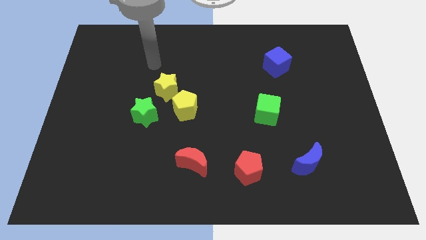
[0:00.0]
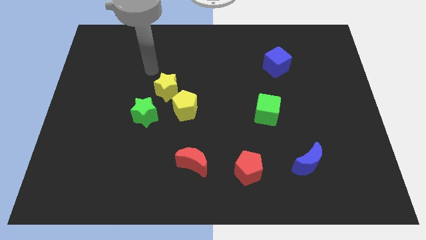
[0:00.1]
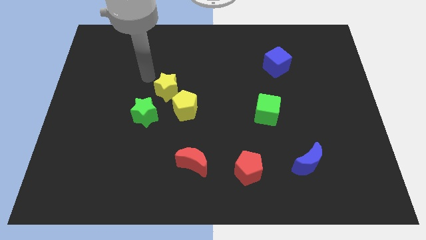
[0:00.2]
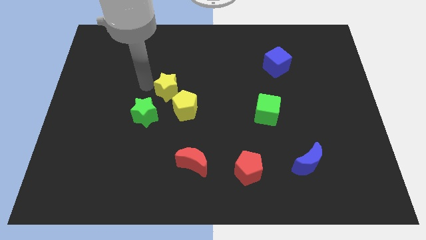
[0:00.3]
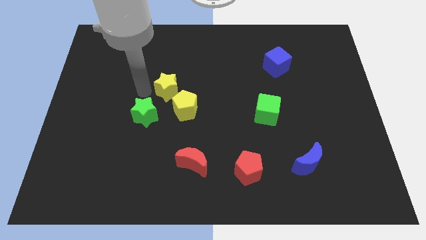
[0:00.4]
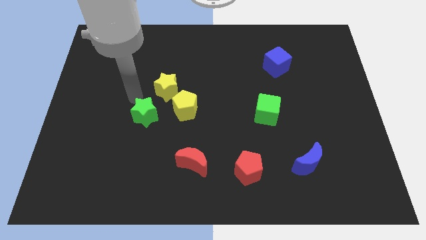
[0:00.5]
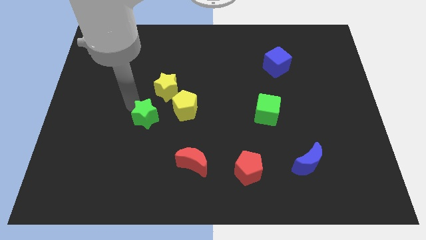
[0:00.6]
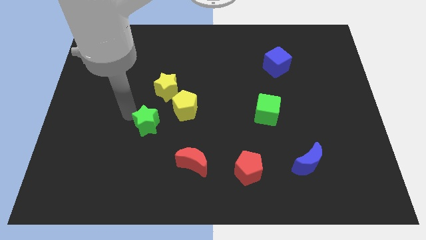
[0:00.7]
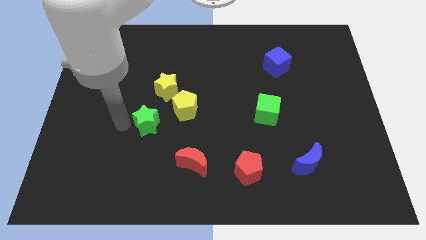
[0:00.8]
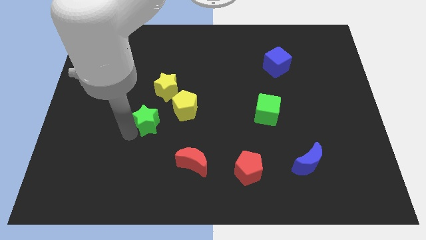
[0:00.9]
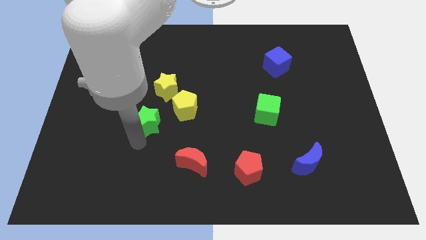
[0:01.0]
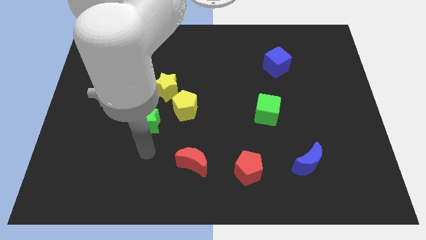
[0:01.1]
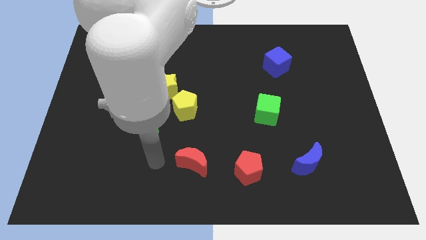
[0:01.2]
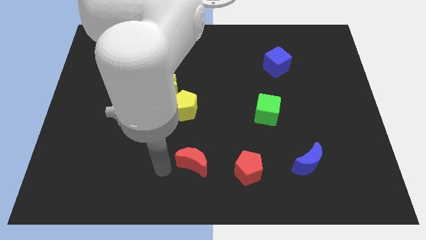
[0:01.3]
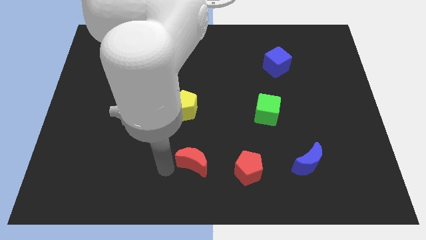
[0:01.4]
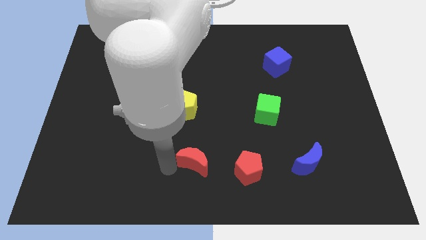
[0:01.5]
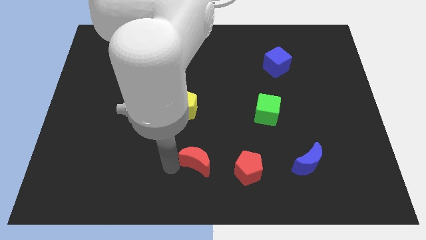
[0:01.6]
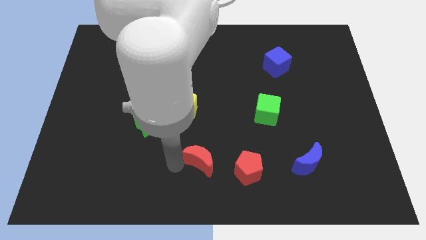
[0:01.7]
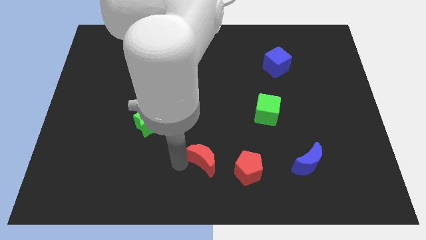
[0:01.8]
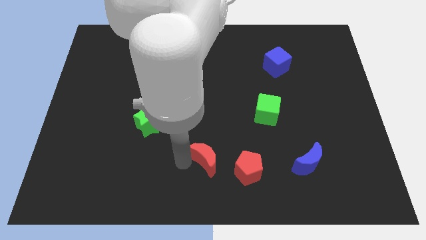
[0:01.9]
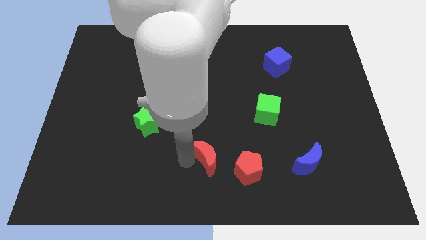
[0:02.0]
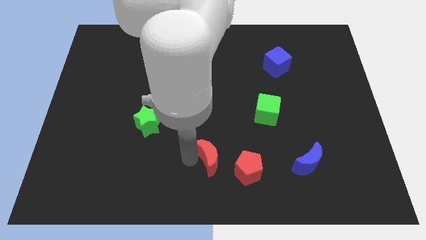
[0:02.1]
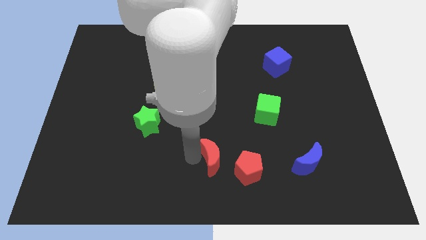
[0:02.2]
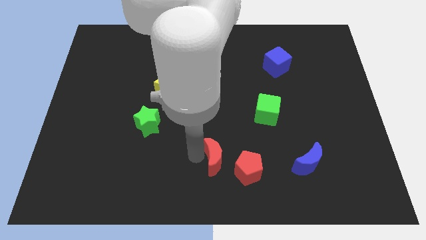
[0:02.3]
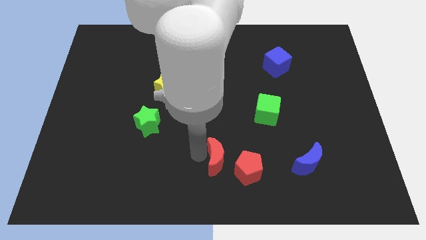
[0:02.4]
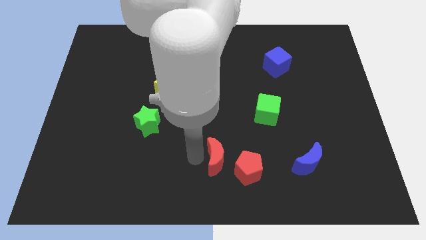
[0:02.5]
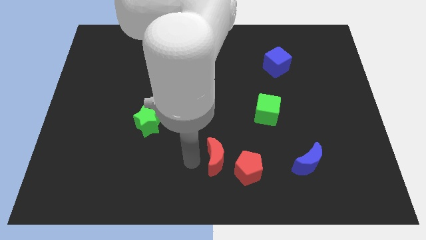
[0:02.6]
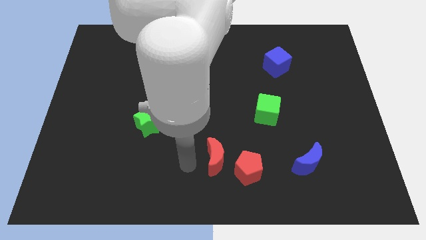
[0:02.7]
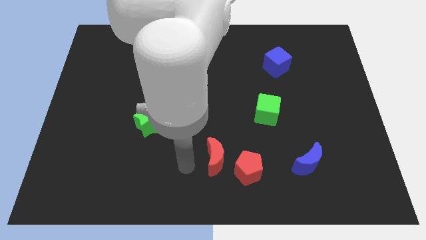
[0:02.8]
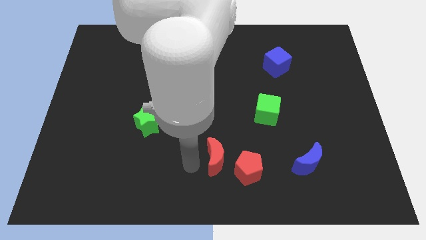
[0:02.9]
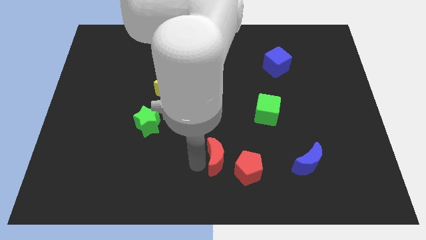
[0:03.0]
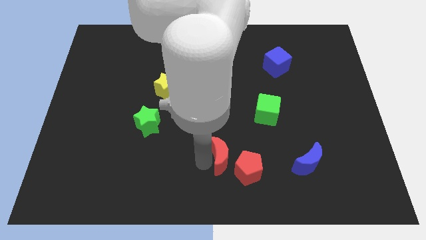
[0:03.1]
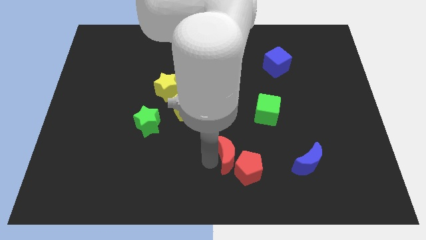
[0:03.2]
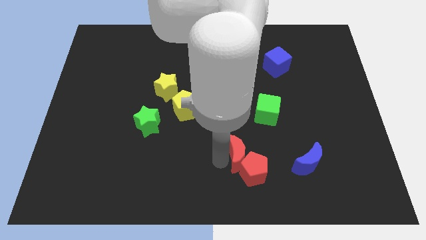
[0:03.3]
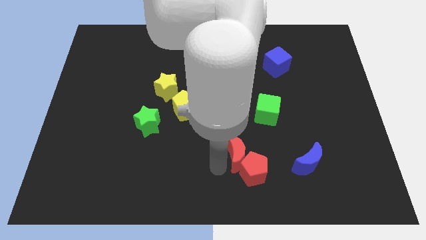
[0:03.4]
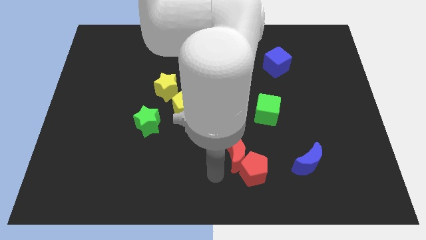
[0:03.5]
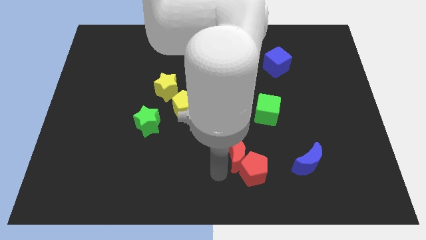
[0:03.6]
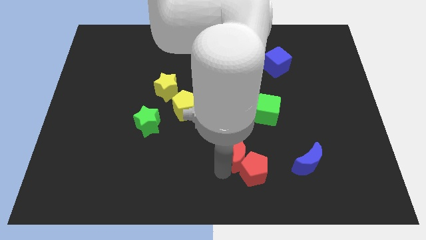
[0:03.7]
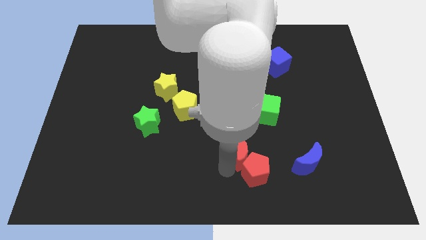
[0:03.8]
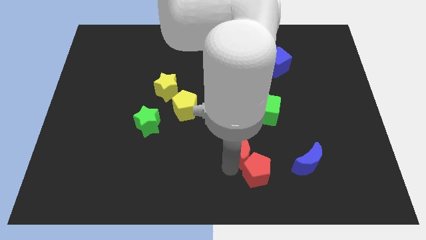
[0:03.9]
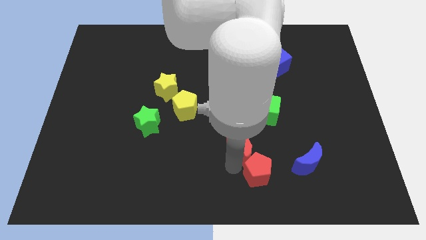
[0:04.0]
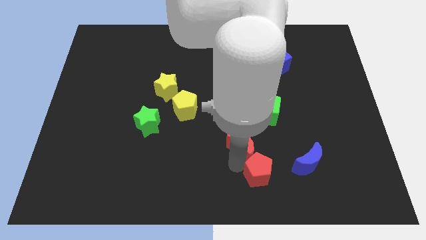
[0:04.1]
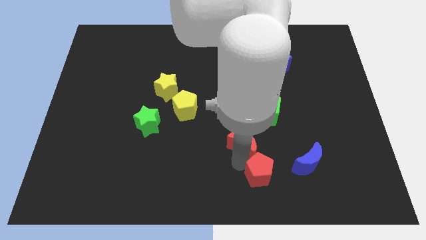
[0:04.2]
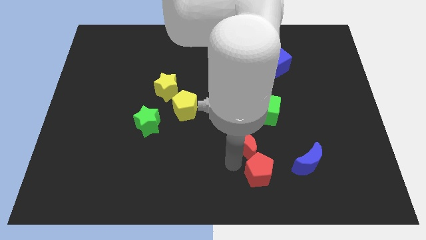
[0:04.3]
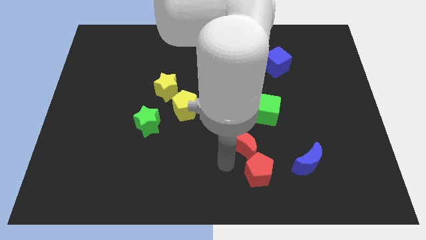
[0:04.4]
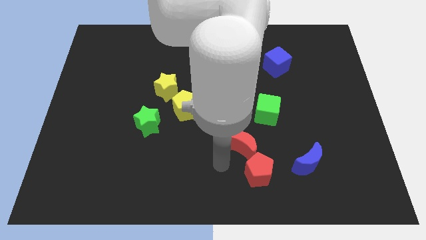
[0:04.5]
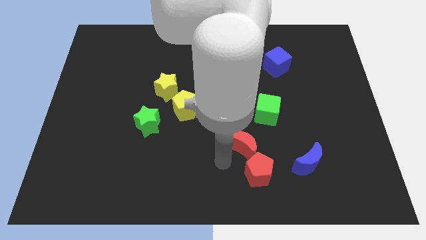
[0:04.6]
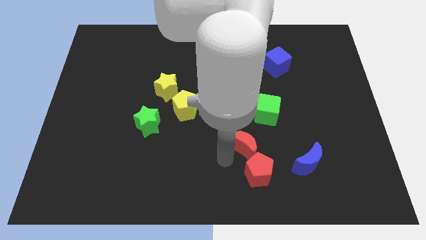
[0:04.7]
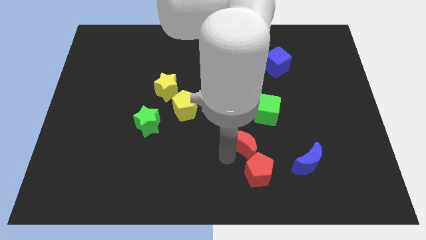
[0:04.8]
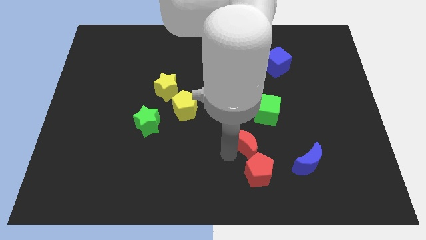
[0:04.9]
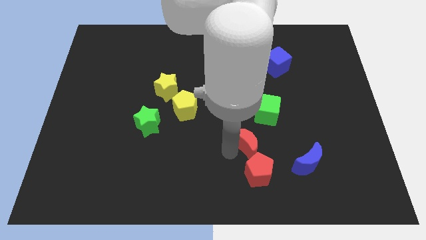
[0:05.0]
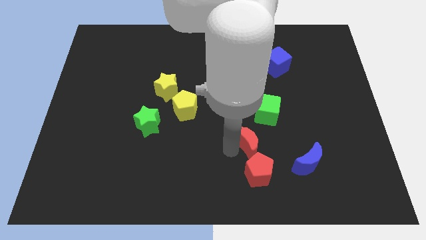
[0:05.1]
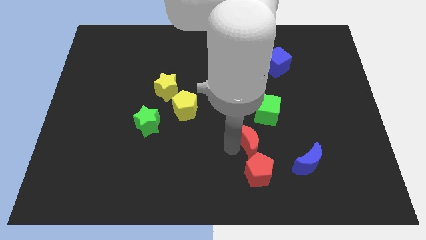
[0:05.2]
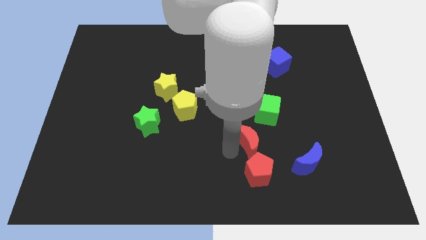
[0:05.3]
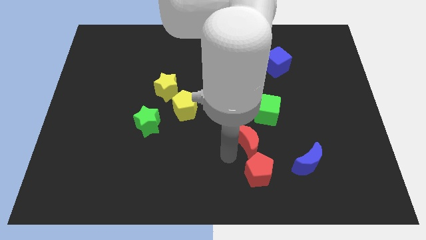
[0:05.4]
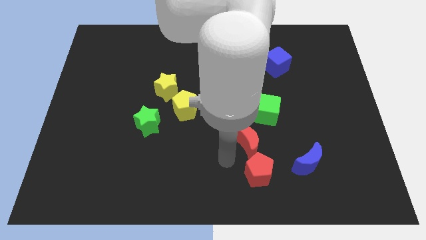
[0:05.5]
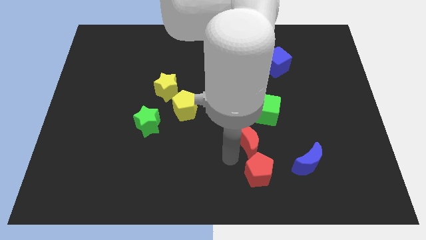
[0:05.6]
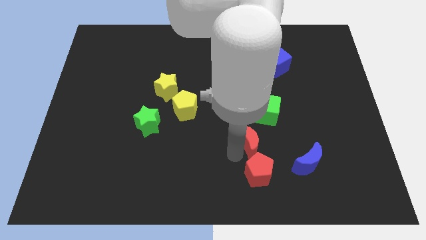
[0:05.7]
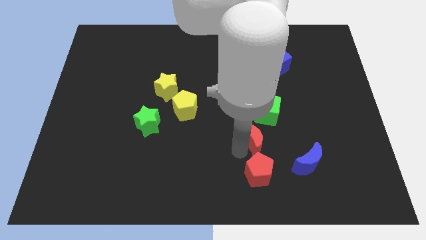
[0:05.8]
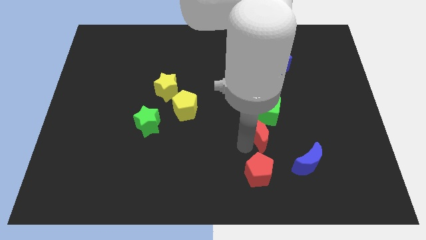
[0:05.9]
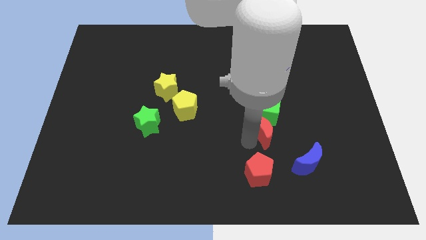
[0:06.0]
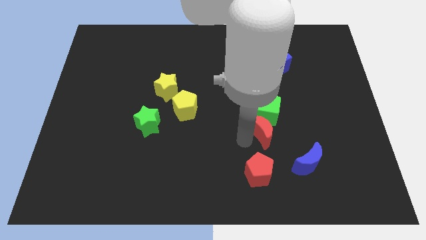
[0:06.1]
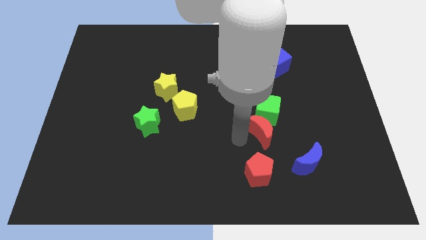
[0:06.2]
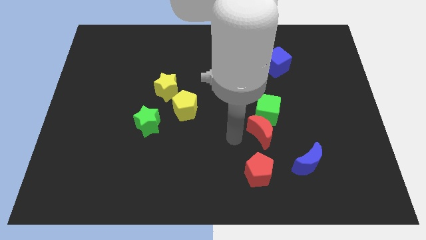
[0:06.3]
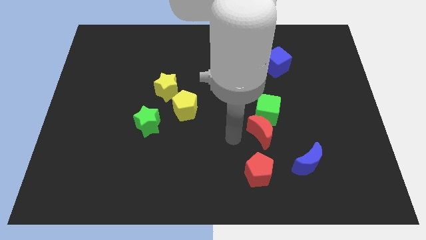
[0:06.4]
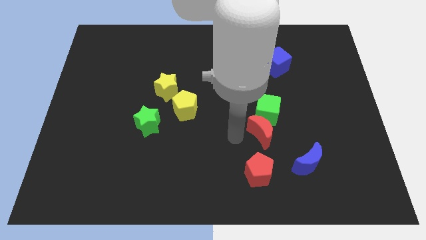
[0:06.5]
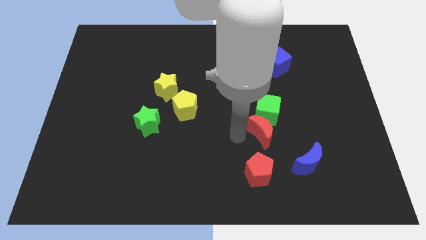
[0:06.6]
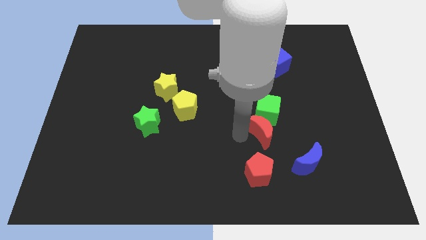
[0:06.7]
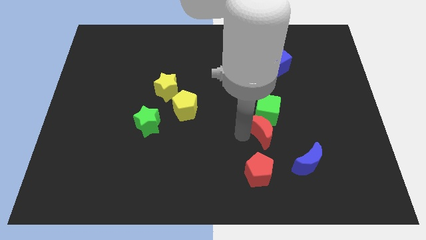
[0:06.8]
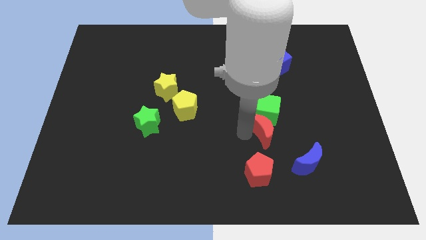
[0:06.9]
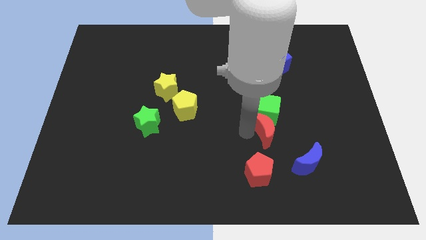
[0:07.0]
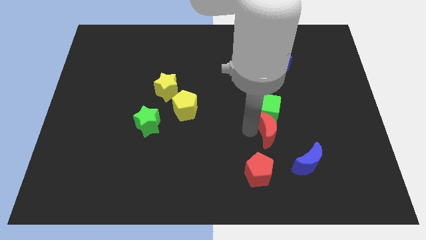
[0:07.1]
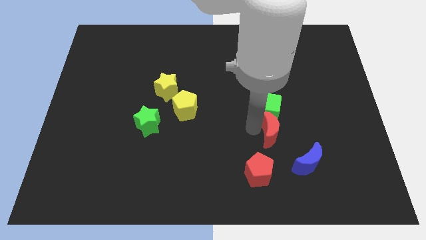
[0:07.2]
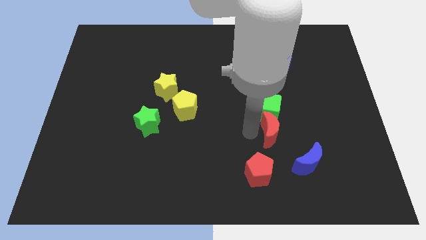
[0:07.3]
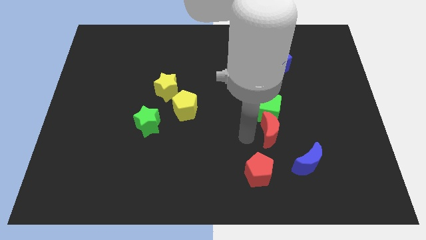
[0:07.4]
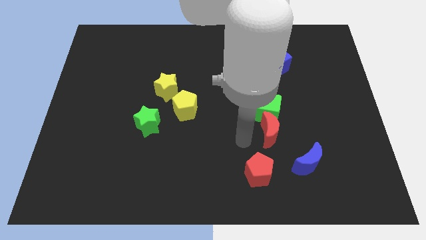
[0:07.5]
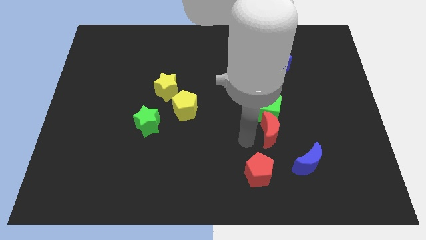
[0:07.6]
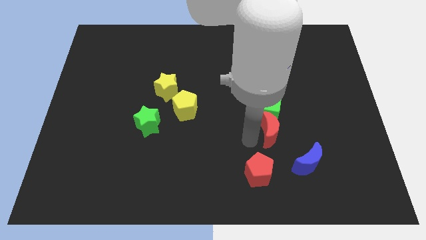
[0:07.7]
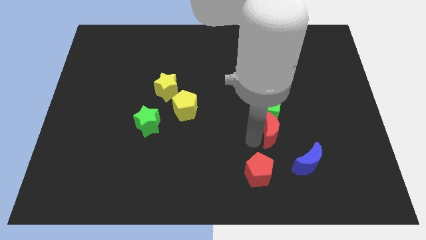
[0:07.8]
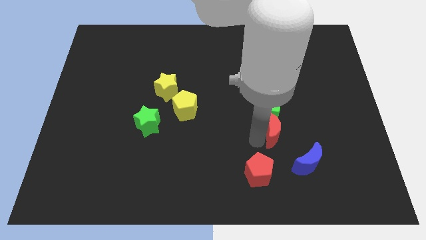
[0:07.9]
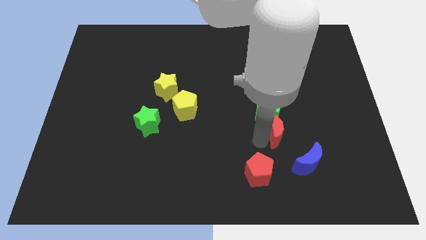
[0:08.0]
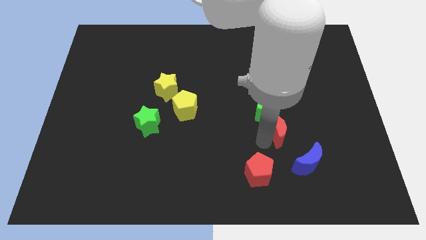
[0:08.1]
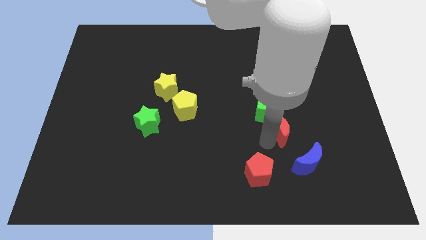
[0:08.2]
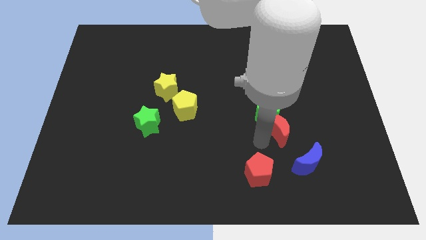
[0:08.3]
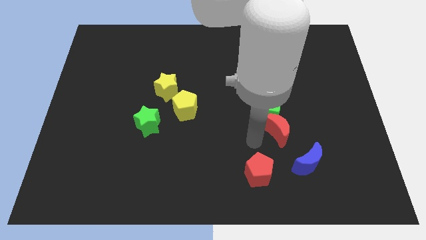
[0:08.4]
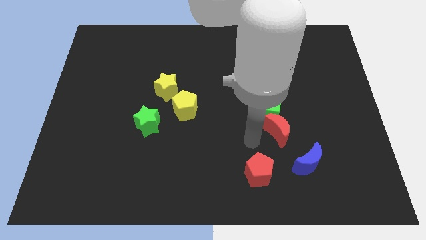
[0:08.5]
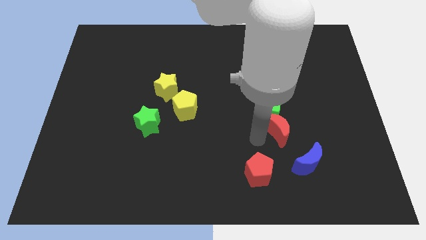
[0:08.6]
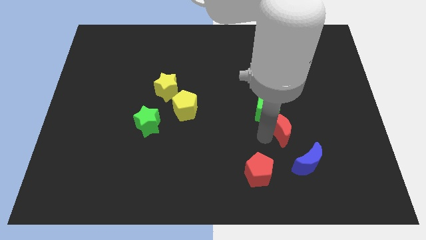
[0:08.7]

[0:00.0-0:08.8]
move the red moon to the top side of the blue moon
